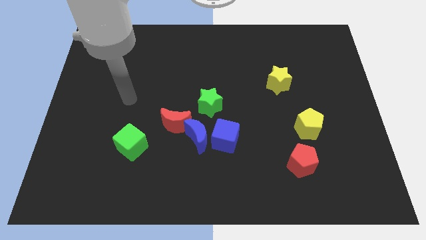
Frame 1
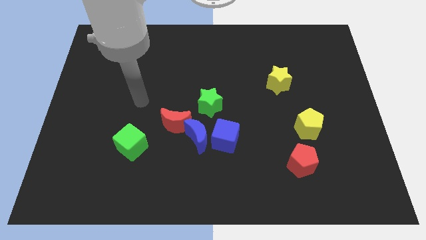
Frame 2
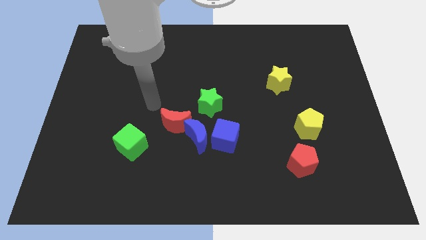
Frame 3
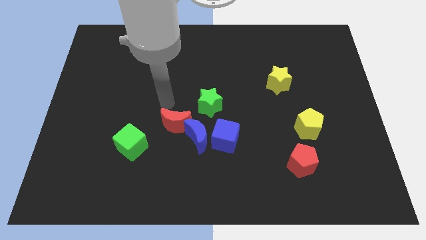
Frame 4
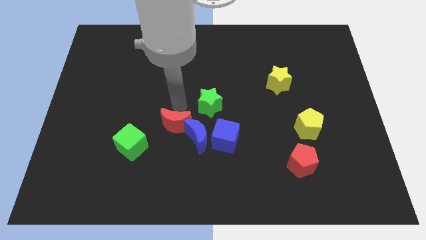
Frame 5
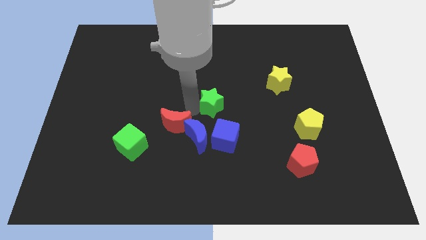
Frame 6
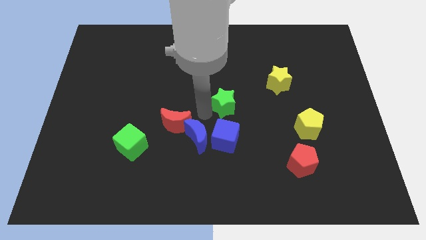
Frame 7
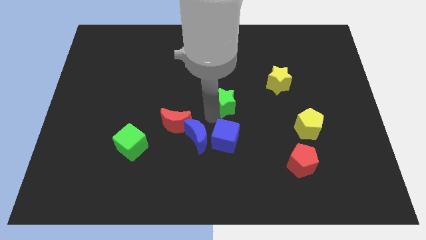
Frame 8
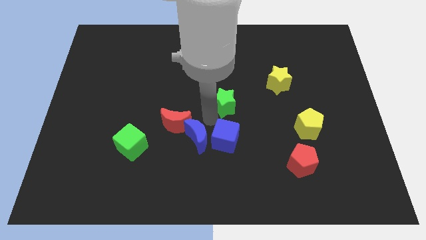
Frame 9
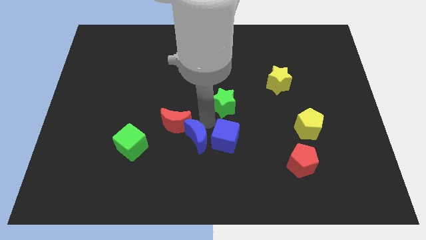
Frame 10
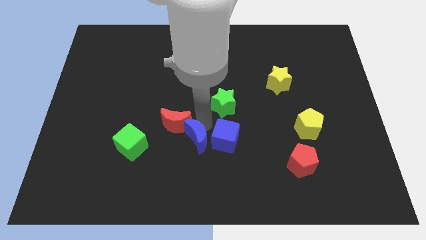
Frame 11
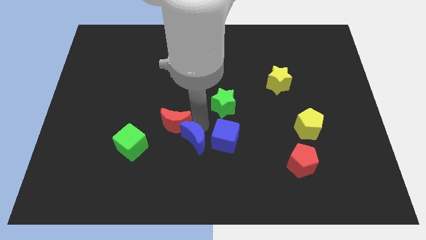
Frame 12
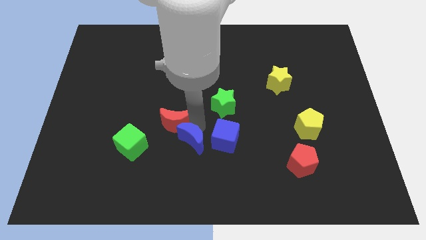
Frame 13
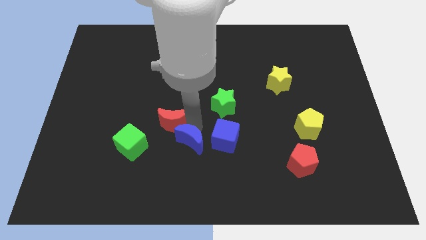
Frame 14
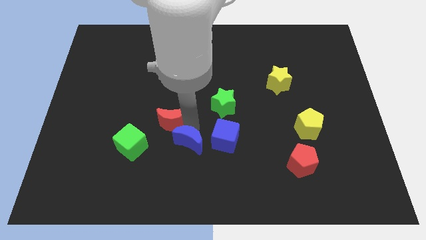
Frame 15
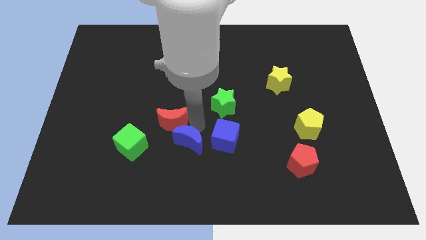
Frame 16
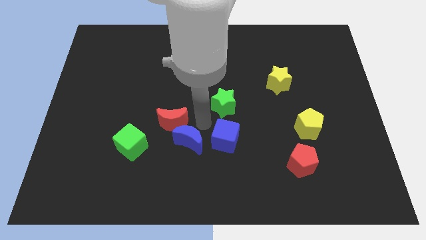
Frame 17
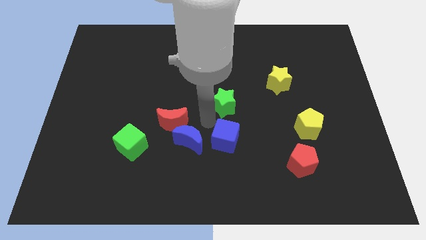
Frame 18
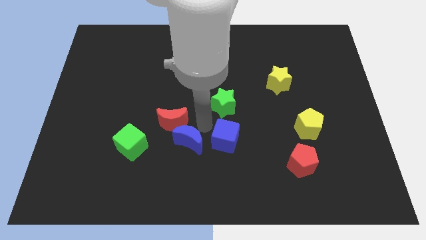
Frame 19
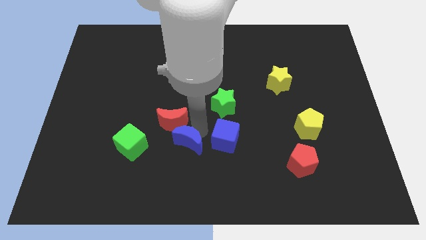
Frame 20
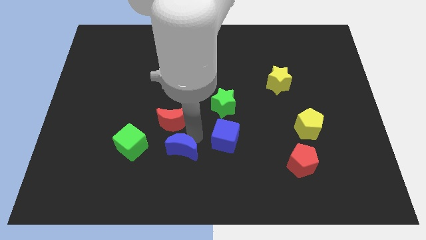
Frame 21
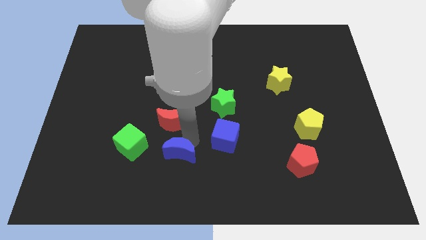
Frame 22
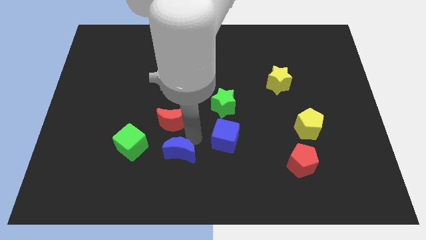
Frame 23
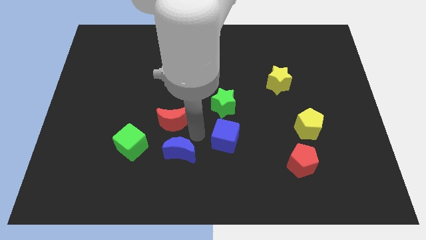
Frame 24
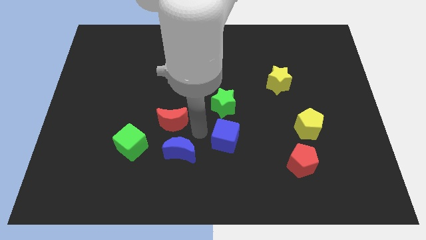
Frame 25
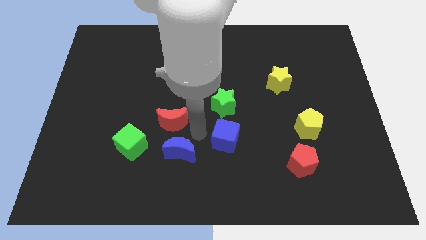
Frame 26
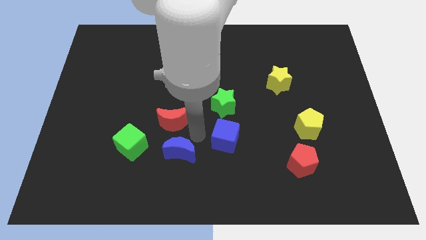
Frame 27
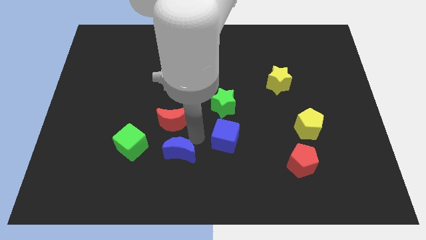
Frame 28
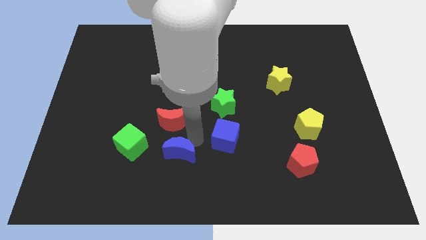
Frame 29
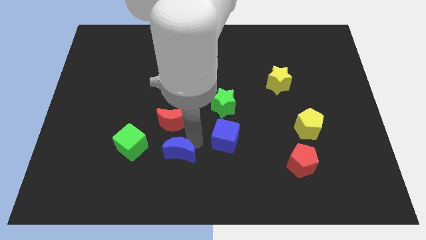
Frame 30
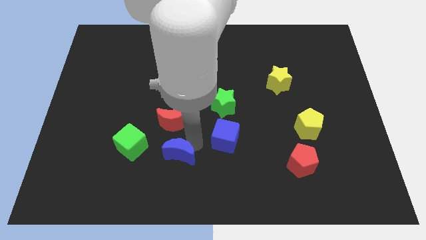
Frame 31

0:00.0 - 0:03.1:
pull the blue moon apart from the blue cube, red moon, and green star

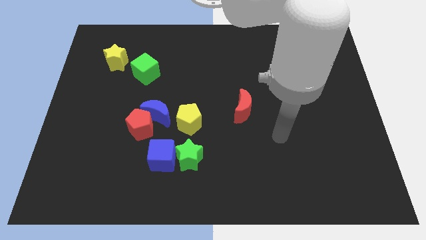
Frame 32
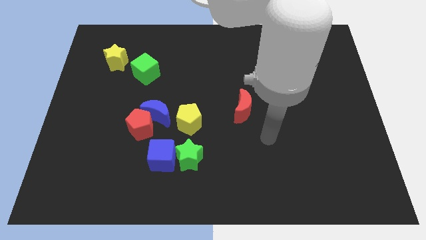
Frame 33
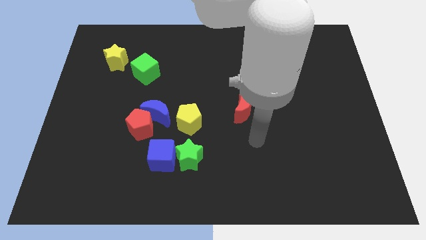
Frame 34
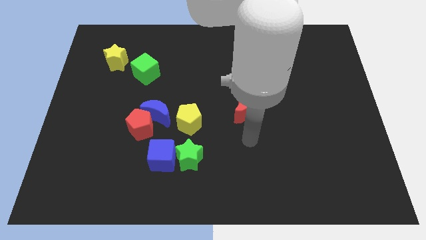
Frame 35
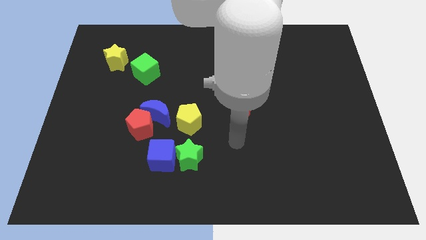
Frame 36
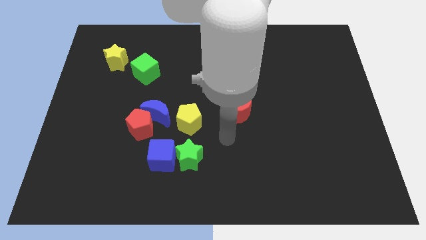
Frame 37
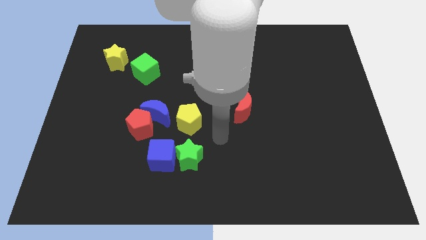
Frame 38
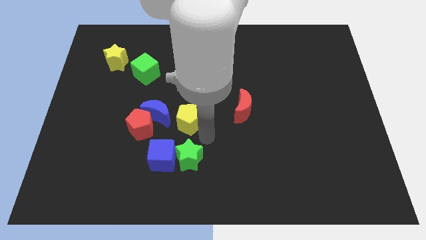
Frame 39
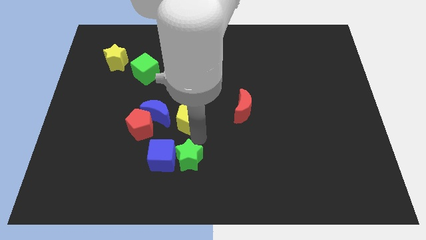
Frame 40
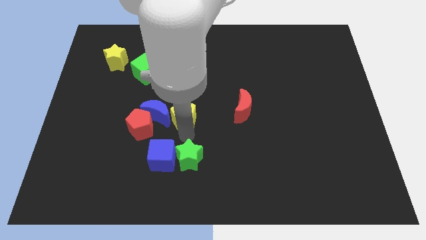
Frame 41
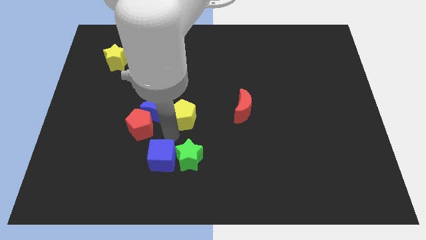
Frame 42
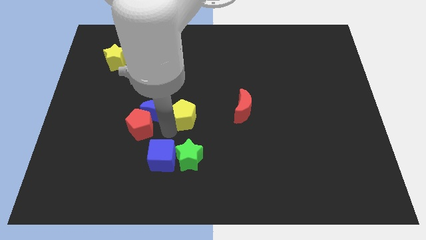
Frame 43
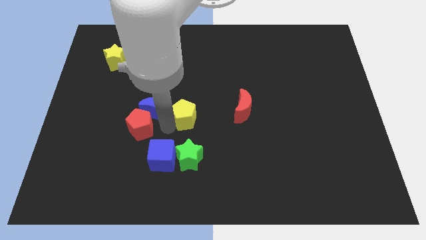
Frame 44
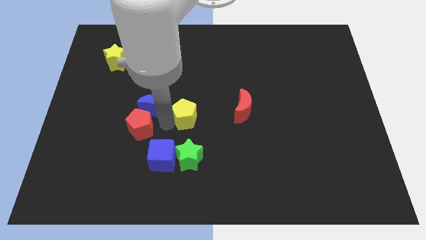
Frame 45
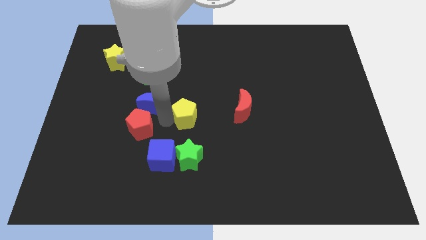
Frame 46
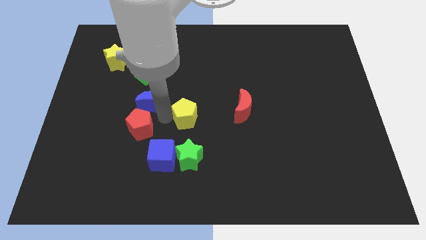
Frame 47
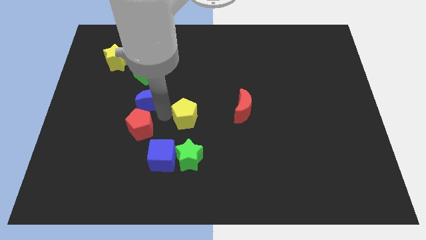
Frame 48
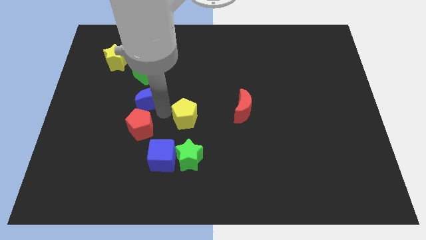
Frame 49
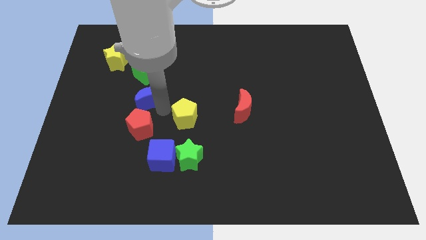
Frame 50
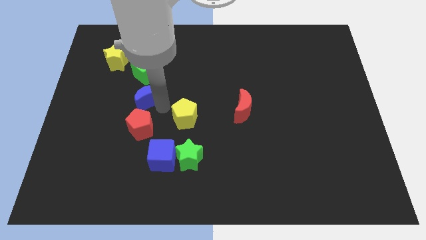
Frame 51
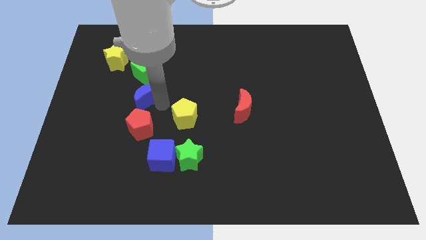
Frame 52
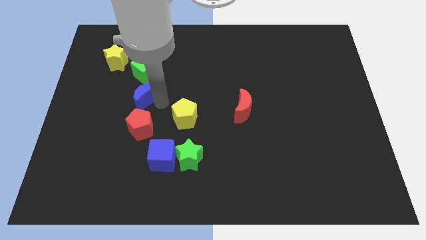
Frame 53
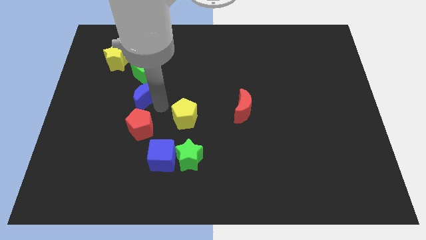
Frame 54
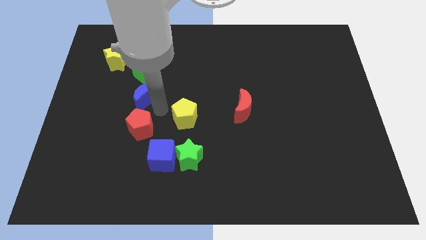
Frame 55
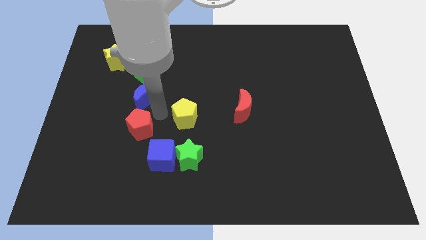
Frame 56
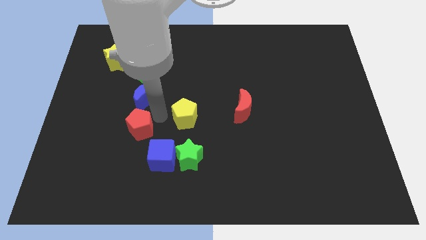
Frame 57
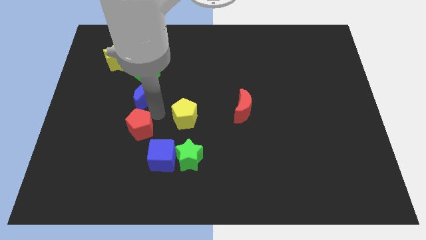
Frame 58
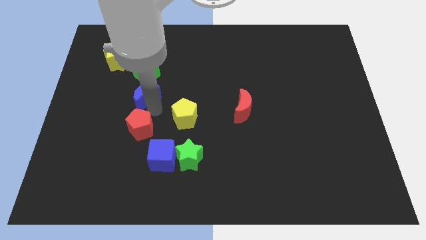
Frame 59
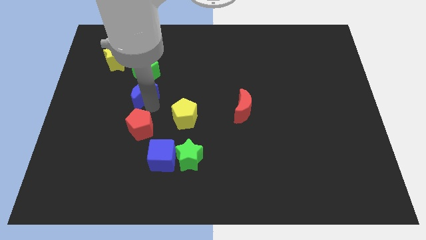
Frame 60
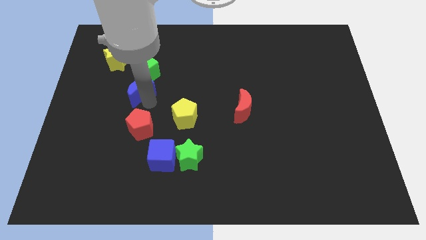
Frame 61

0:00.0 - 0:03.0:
pull the blue moon apart from the red pentagon and yellow pentagon

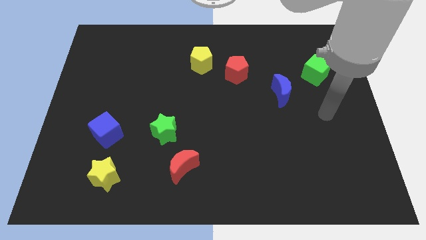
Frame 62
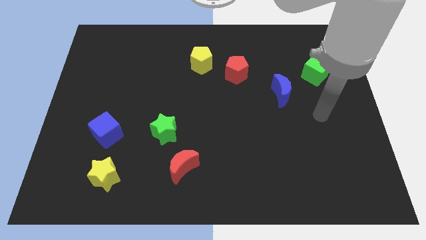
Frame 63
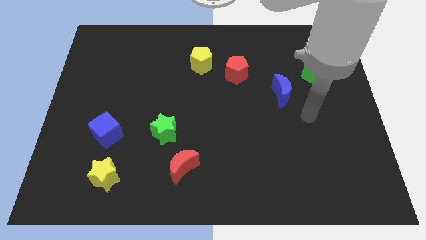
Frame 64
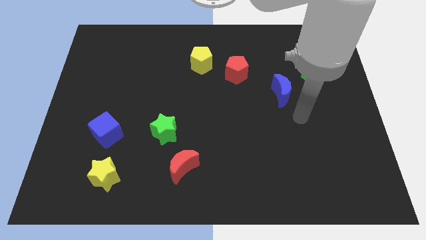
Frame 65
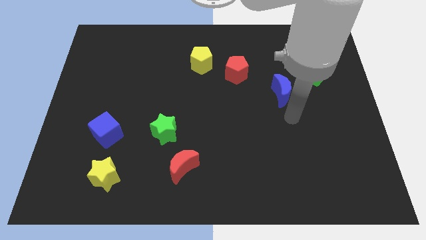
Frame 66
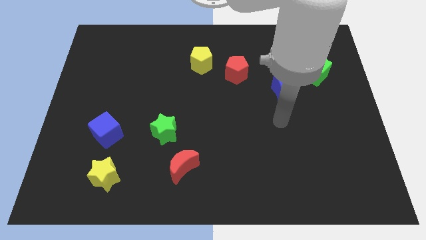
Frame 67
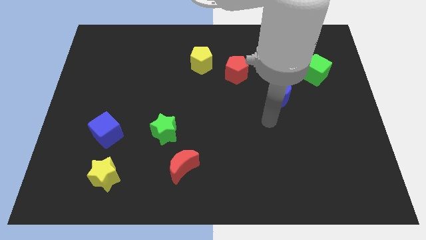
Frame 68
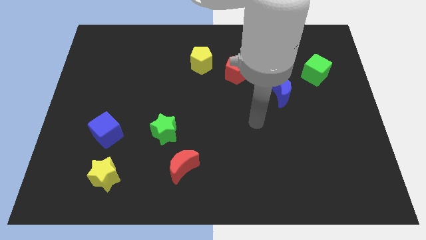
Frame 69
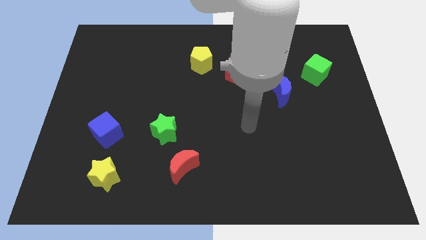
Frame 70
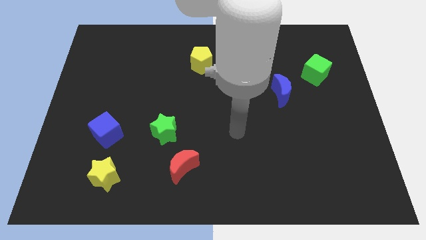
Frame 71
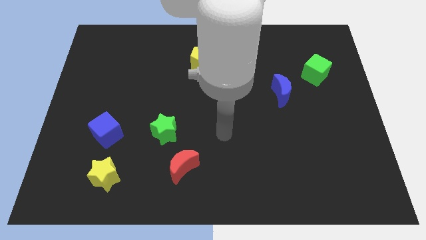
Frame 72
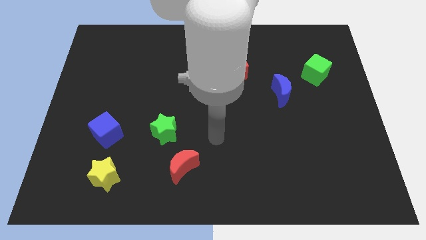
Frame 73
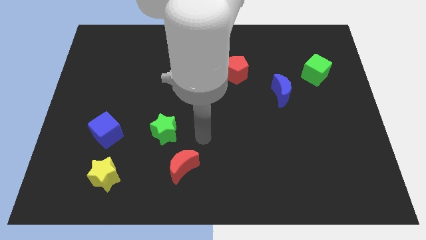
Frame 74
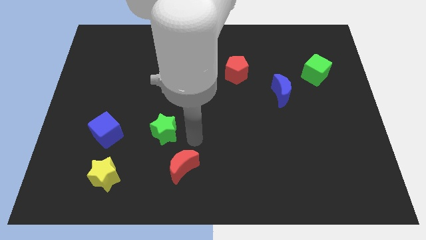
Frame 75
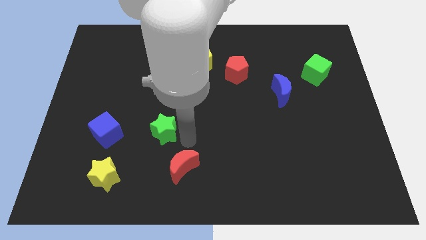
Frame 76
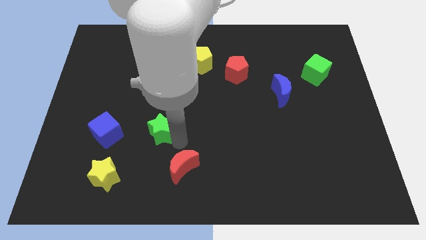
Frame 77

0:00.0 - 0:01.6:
pull the red moon apart from the green star

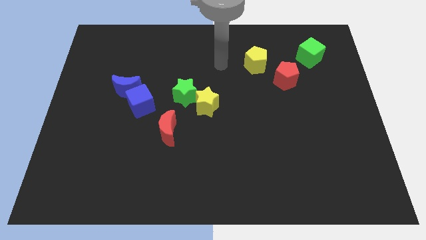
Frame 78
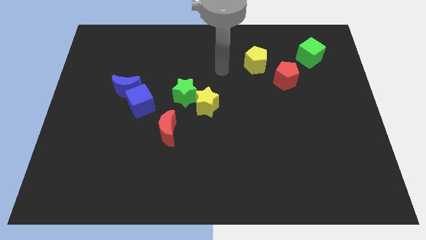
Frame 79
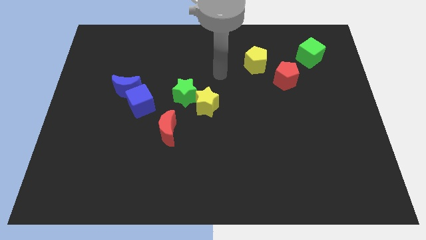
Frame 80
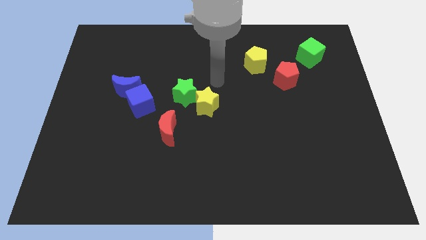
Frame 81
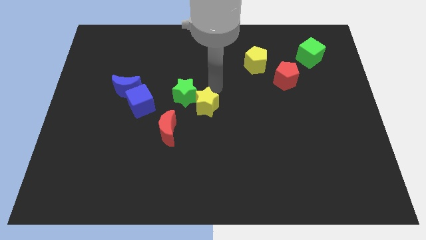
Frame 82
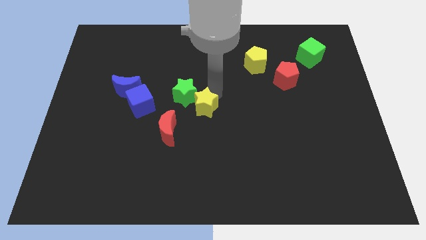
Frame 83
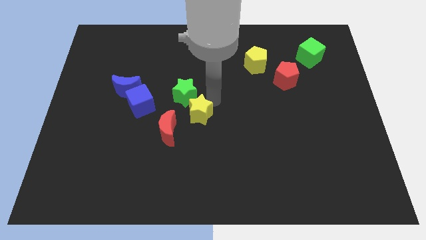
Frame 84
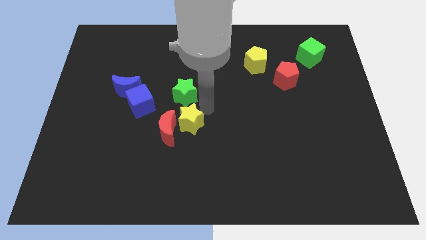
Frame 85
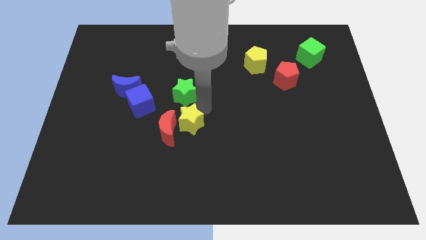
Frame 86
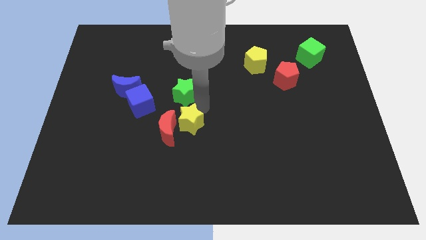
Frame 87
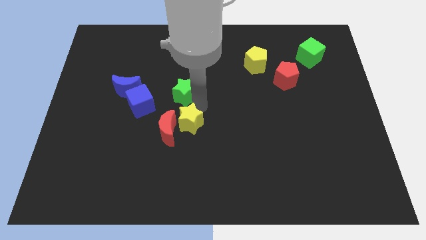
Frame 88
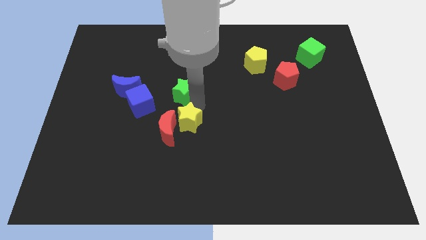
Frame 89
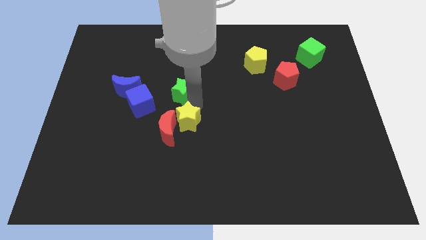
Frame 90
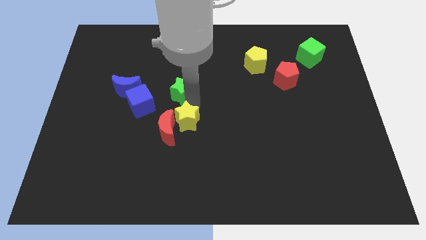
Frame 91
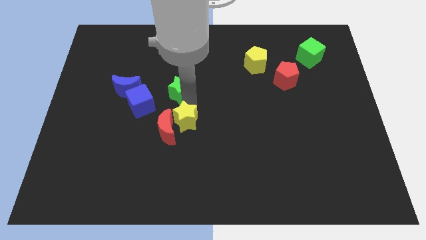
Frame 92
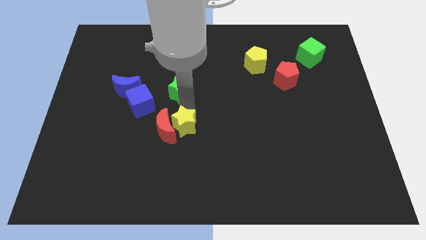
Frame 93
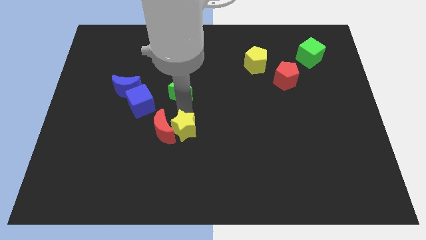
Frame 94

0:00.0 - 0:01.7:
separate the green star from the yellow star
